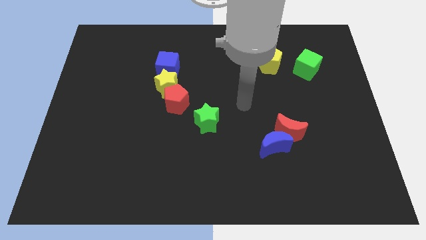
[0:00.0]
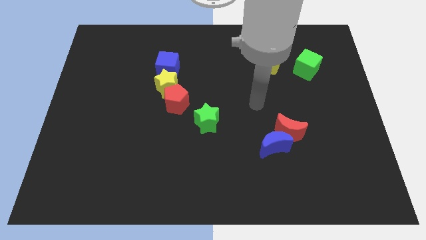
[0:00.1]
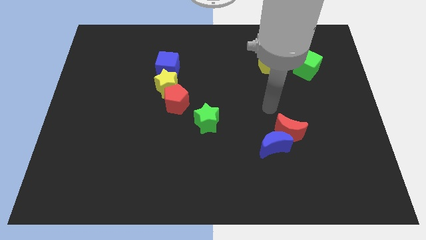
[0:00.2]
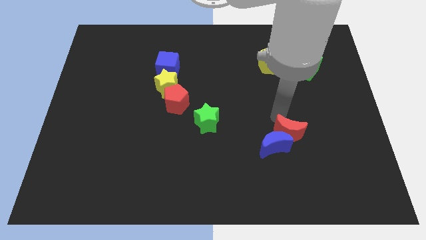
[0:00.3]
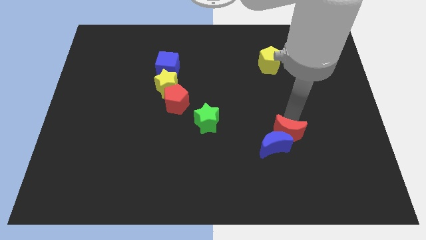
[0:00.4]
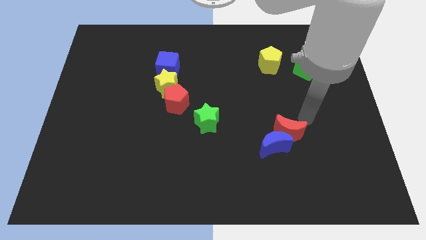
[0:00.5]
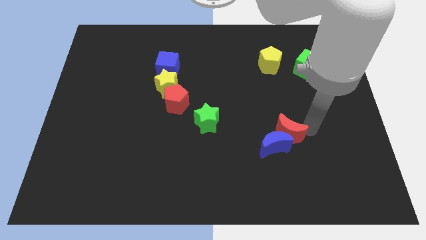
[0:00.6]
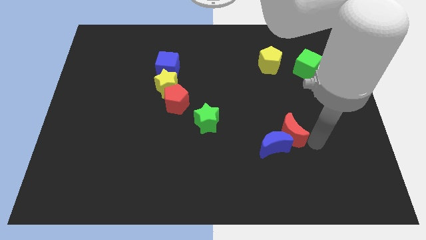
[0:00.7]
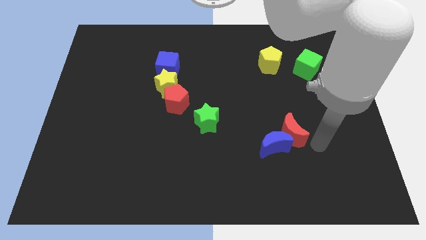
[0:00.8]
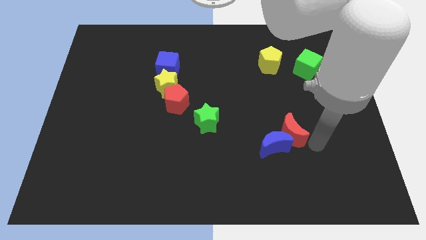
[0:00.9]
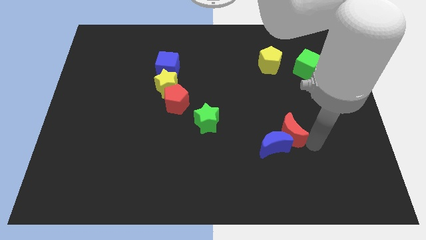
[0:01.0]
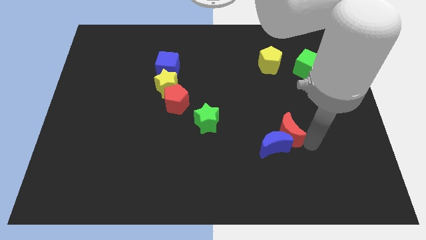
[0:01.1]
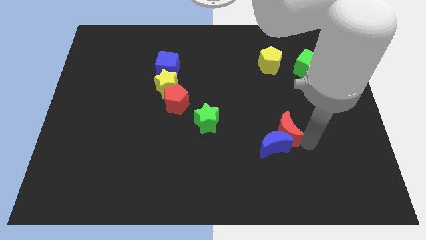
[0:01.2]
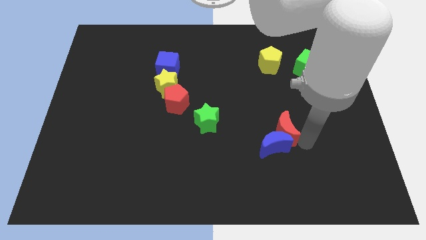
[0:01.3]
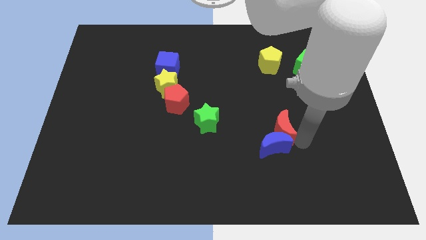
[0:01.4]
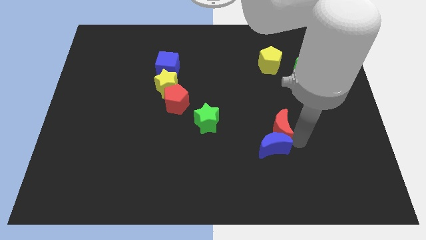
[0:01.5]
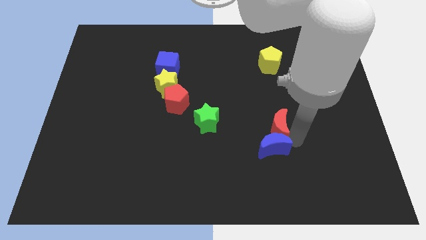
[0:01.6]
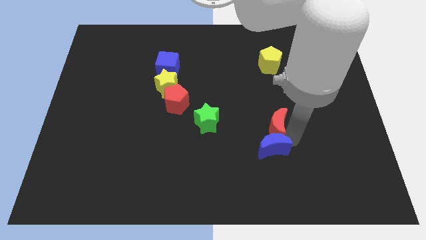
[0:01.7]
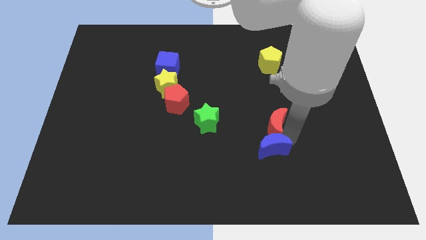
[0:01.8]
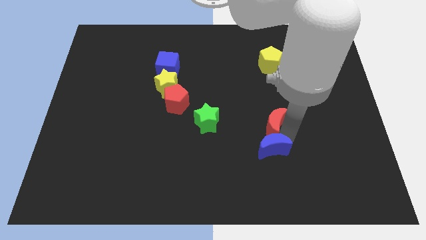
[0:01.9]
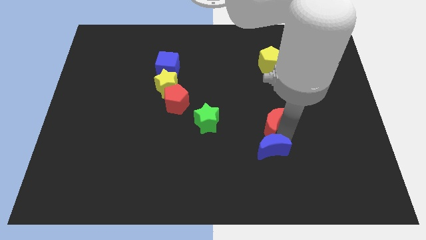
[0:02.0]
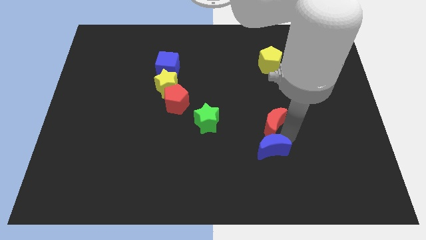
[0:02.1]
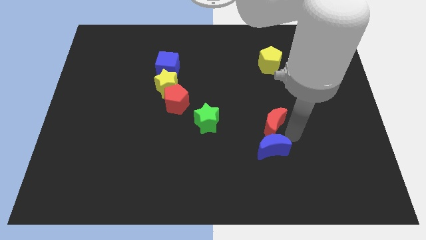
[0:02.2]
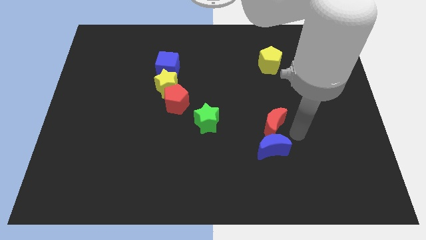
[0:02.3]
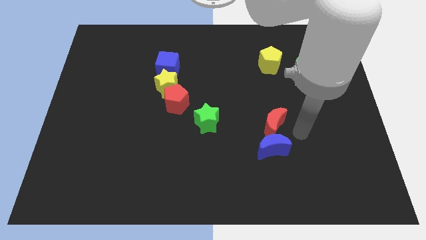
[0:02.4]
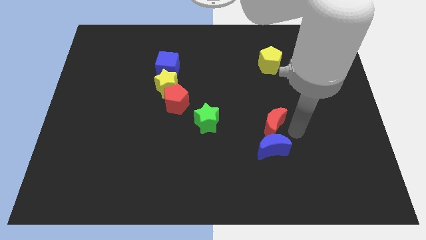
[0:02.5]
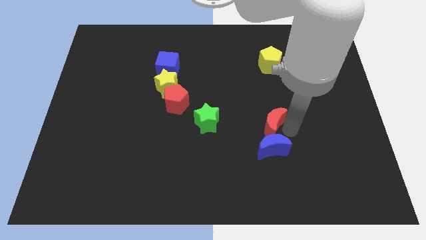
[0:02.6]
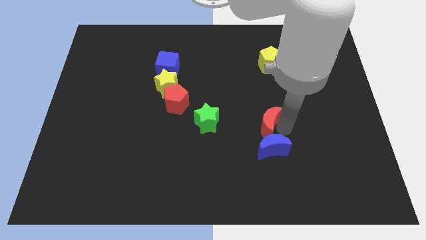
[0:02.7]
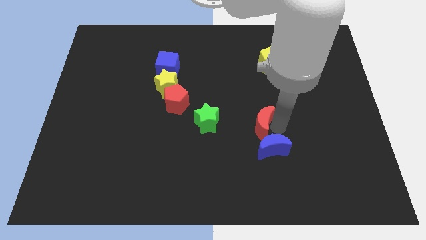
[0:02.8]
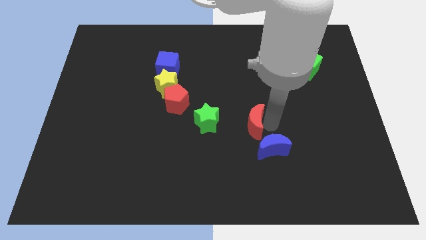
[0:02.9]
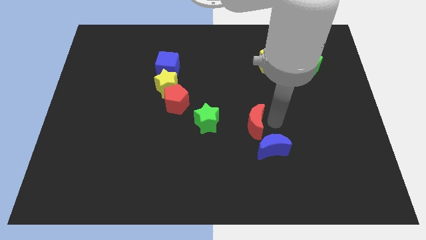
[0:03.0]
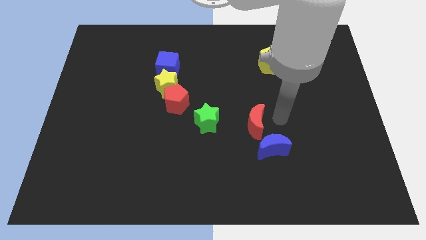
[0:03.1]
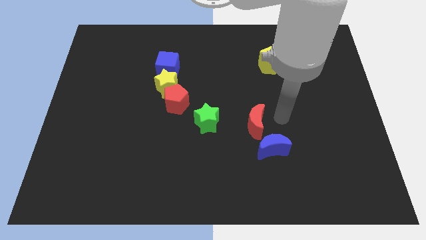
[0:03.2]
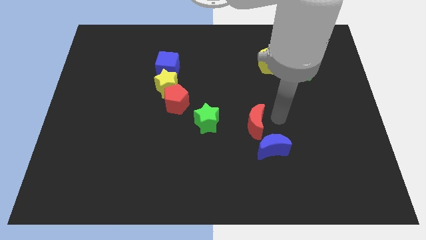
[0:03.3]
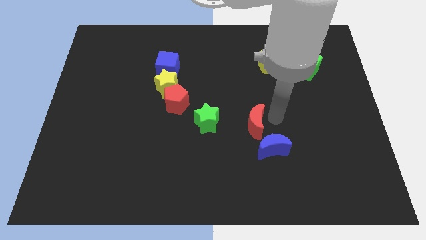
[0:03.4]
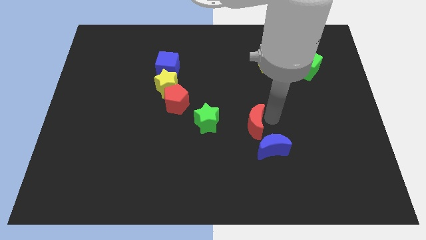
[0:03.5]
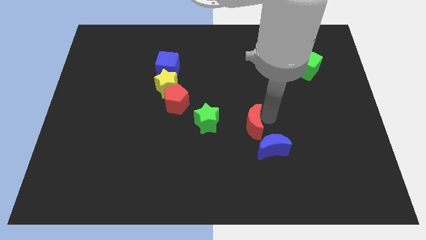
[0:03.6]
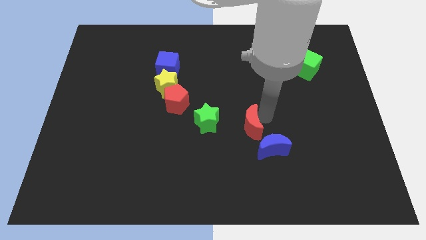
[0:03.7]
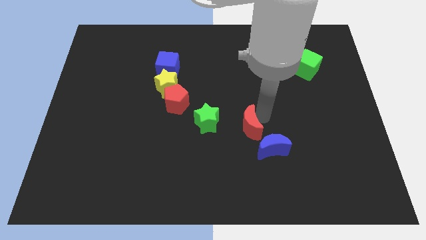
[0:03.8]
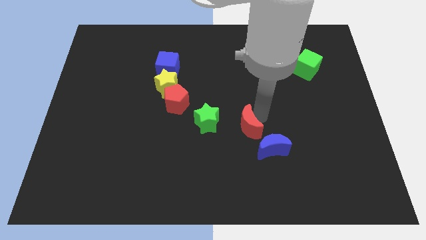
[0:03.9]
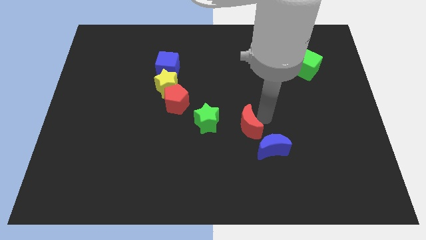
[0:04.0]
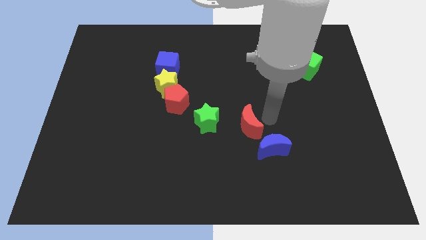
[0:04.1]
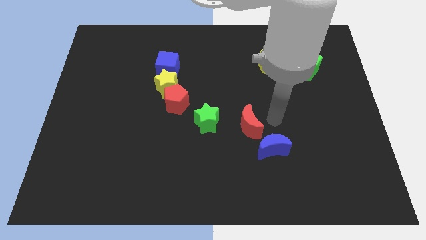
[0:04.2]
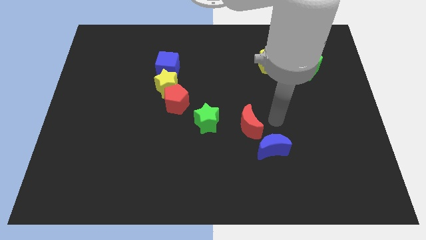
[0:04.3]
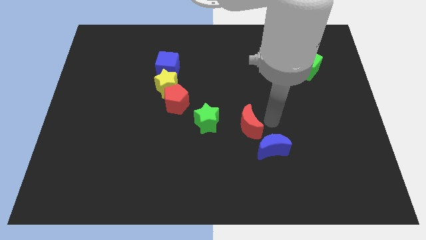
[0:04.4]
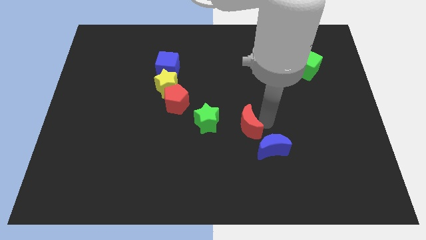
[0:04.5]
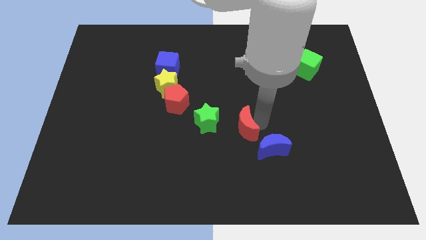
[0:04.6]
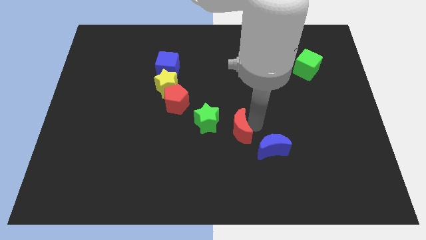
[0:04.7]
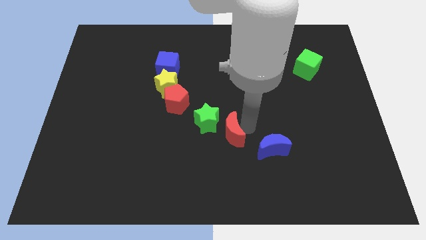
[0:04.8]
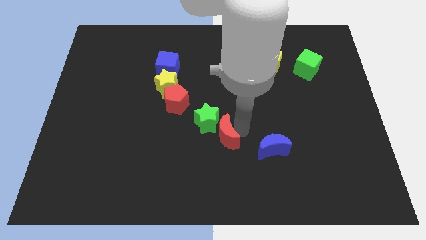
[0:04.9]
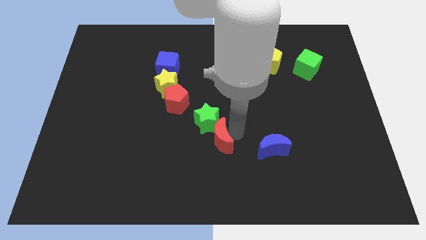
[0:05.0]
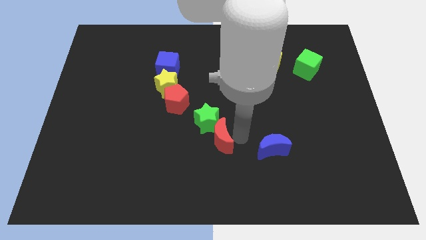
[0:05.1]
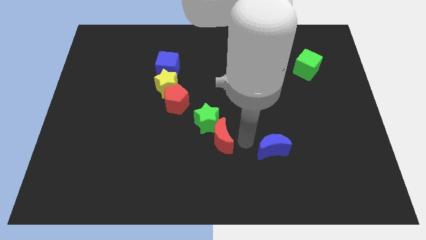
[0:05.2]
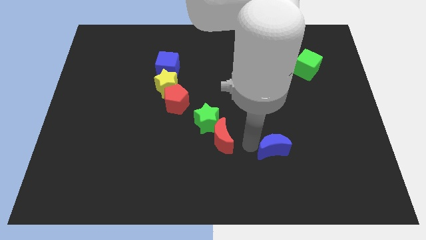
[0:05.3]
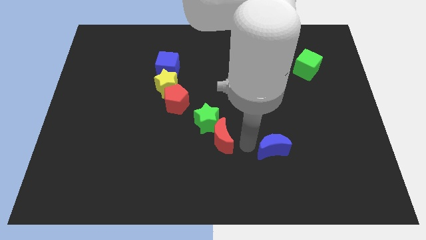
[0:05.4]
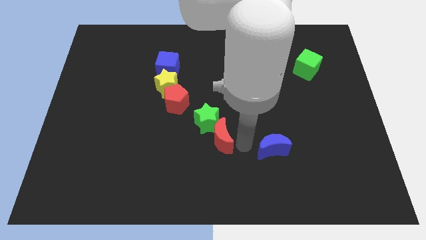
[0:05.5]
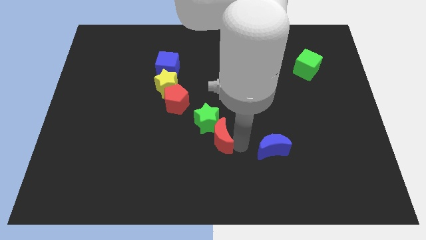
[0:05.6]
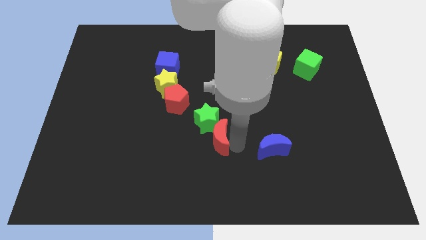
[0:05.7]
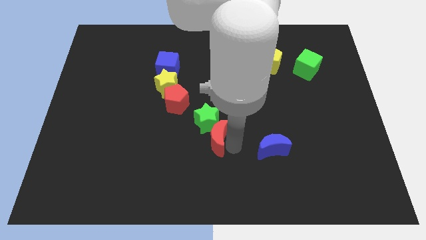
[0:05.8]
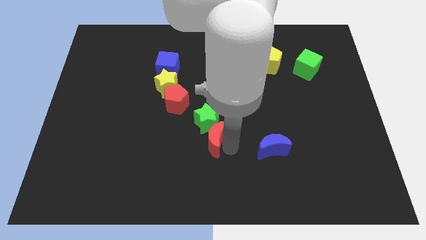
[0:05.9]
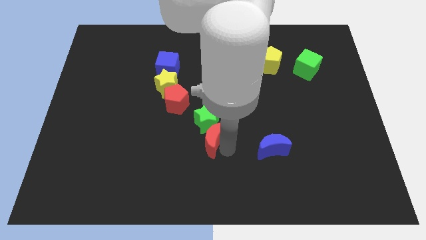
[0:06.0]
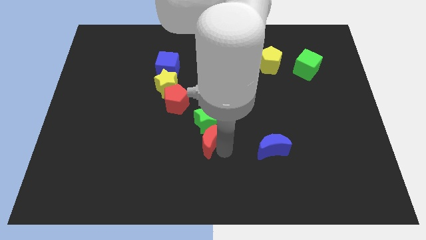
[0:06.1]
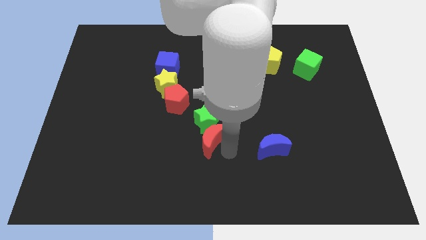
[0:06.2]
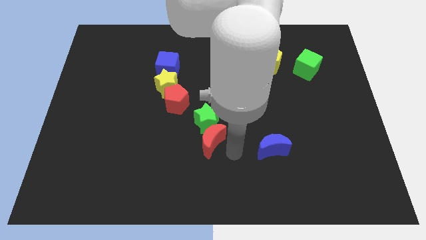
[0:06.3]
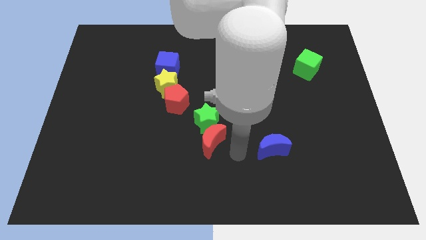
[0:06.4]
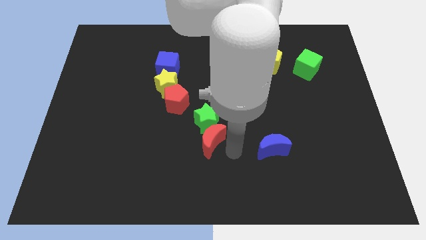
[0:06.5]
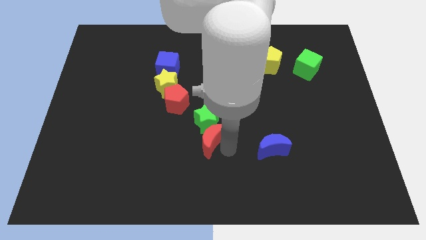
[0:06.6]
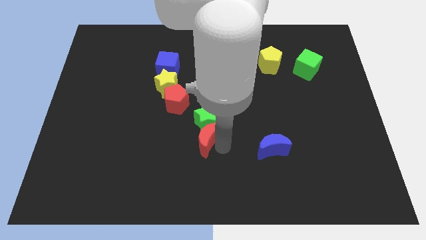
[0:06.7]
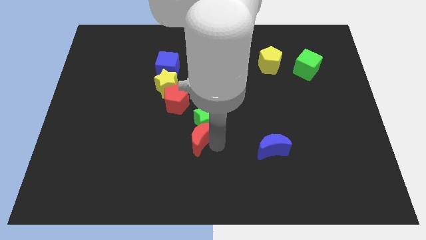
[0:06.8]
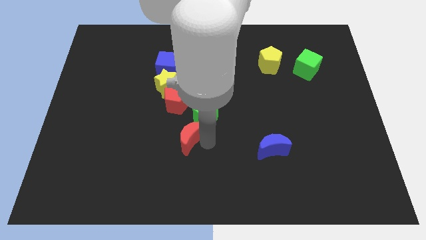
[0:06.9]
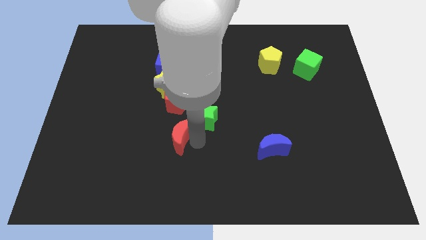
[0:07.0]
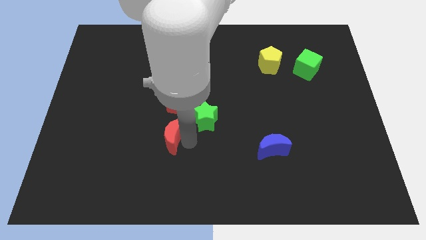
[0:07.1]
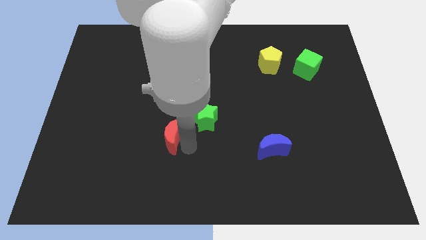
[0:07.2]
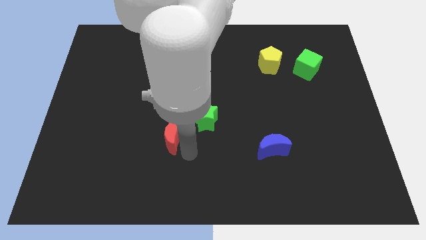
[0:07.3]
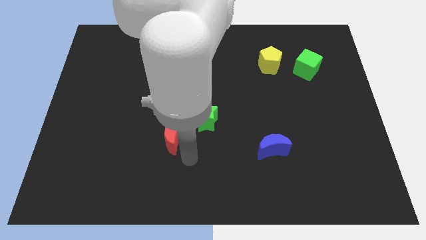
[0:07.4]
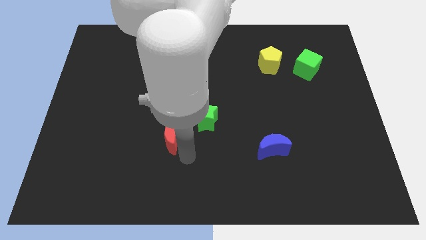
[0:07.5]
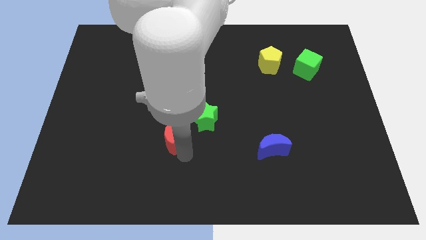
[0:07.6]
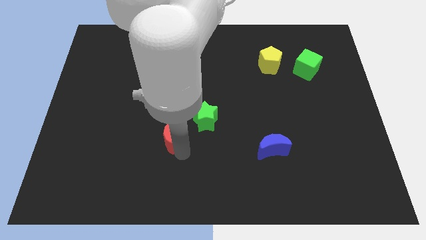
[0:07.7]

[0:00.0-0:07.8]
slide the red moon left of the green star

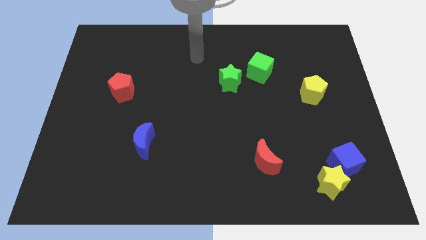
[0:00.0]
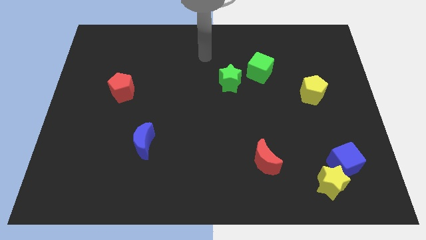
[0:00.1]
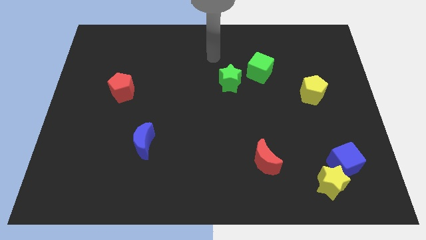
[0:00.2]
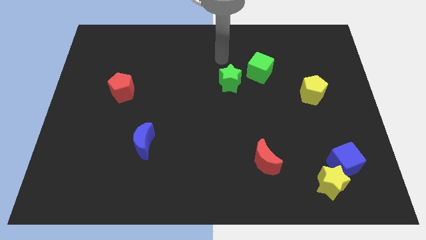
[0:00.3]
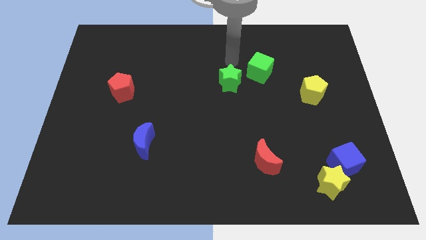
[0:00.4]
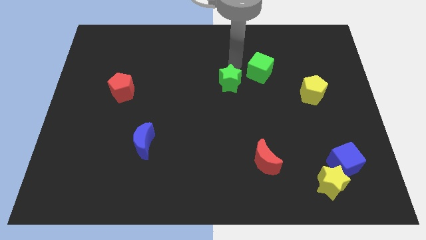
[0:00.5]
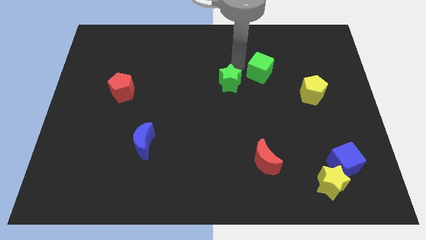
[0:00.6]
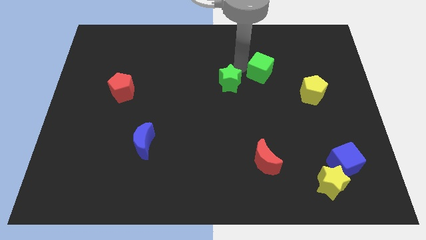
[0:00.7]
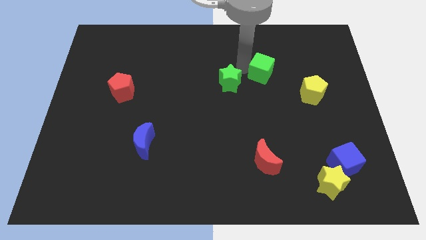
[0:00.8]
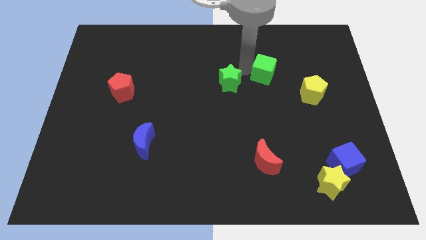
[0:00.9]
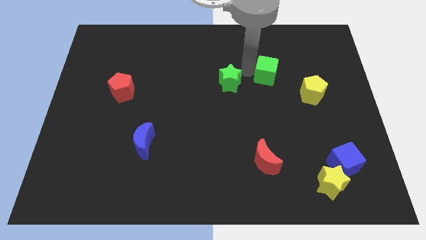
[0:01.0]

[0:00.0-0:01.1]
slide the green cube to the top left side of the yellow pentagon
